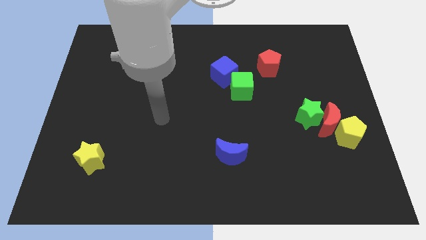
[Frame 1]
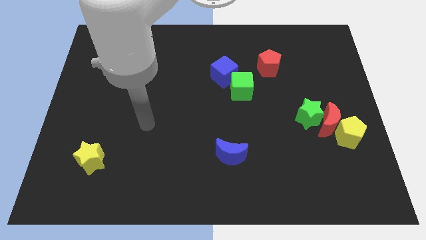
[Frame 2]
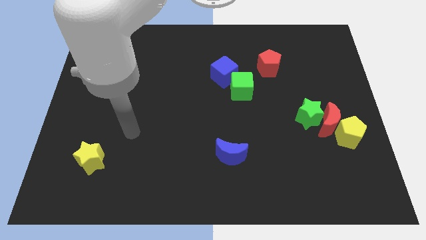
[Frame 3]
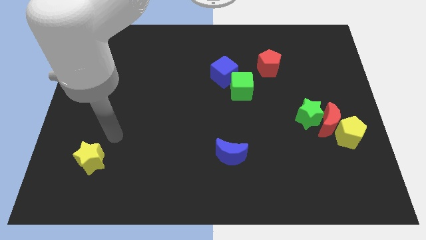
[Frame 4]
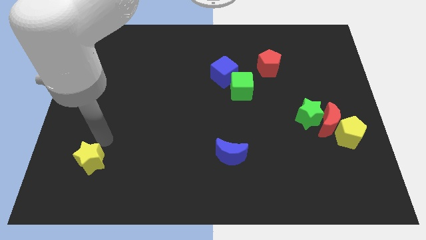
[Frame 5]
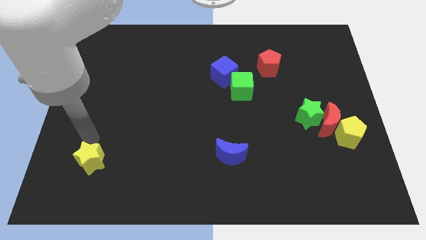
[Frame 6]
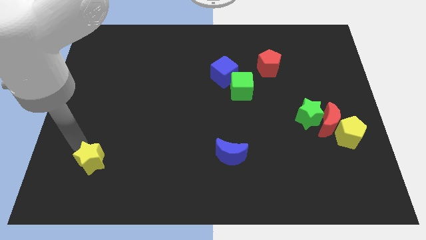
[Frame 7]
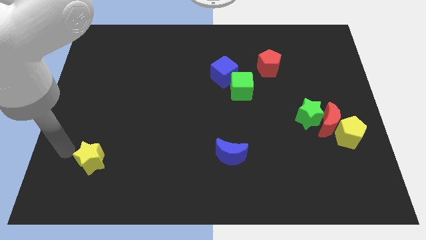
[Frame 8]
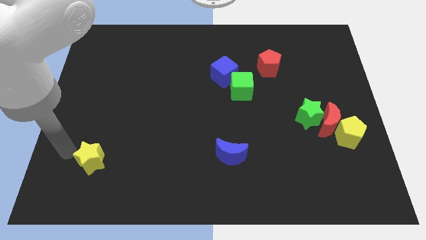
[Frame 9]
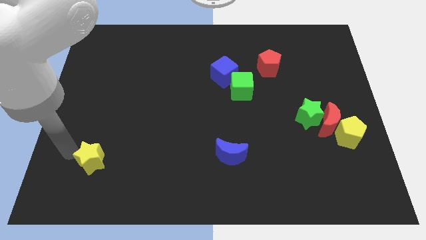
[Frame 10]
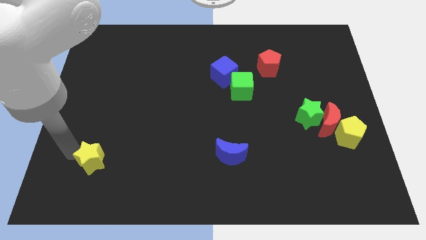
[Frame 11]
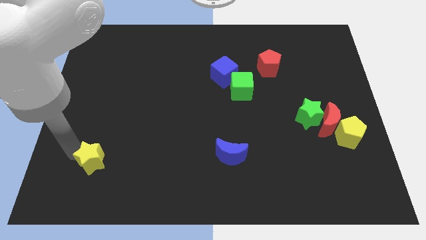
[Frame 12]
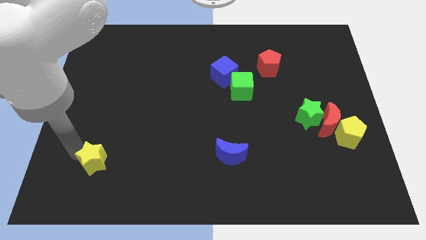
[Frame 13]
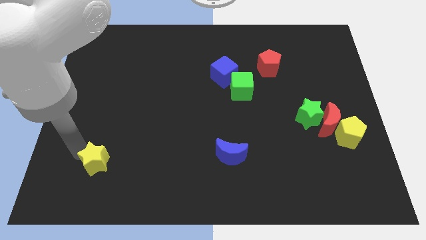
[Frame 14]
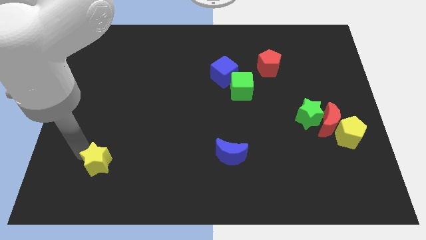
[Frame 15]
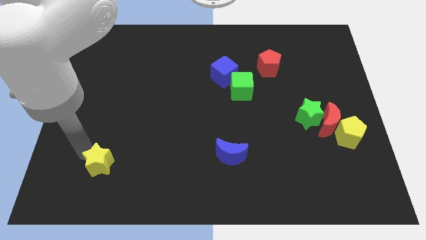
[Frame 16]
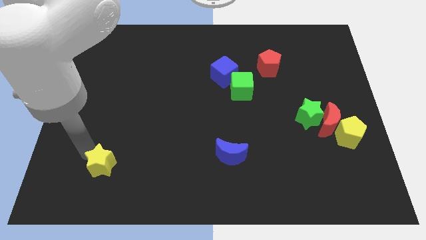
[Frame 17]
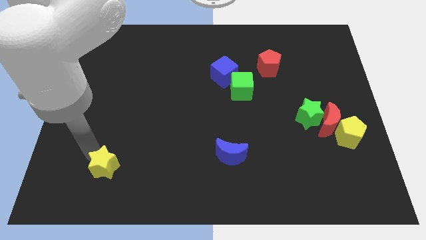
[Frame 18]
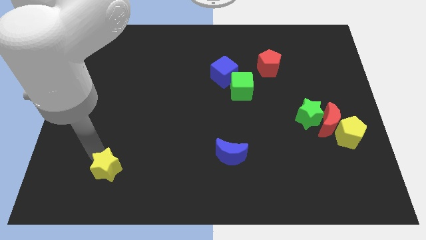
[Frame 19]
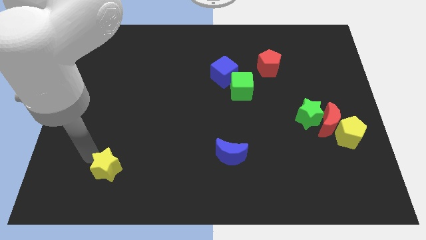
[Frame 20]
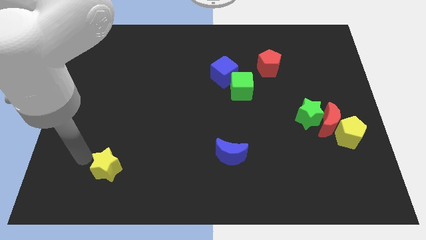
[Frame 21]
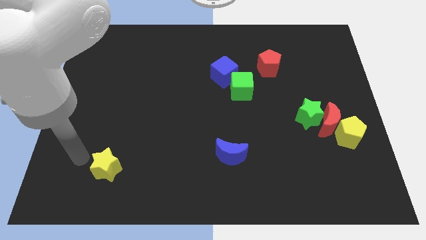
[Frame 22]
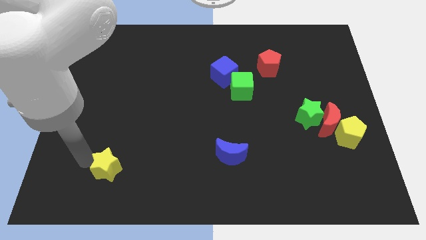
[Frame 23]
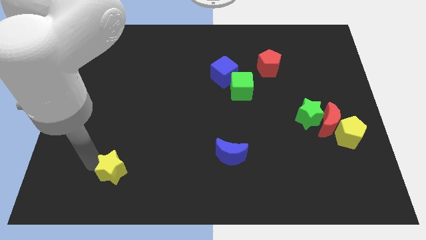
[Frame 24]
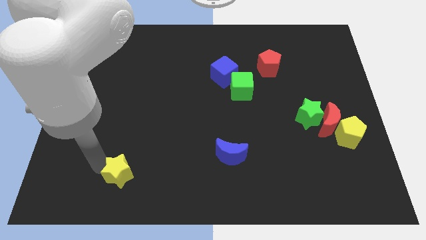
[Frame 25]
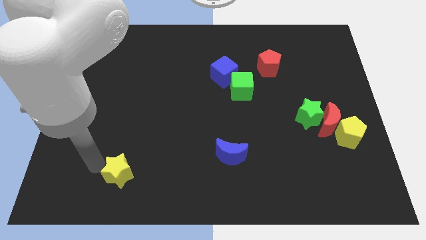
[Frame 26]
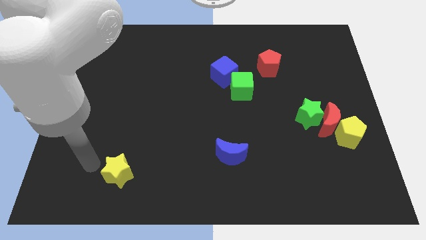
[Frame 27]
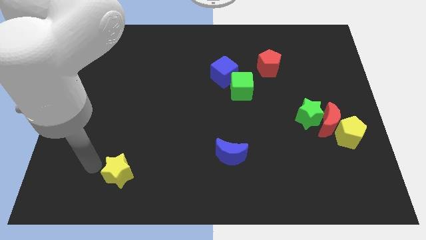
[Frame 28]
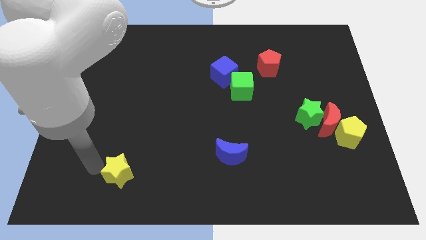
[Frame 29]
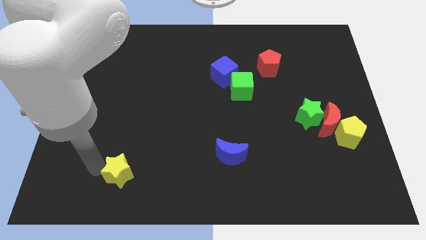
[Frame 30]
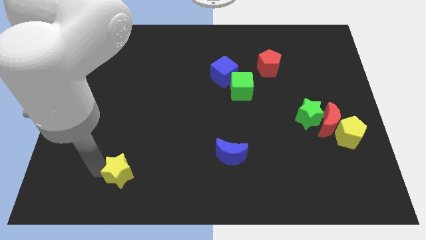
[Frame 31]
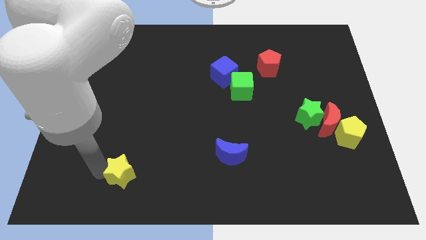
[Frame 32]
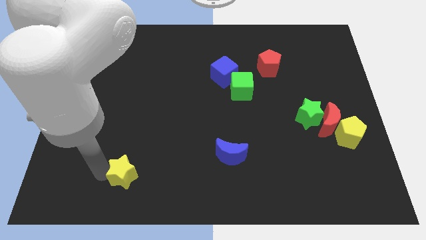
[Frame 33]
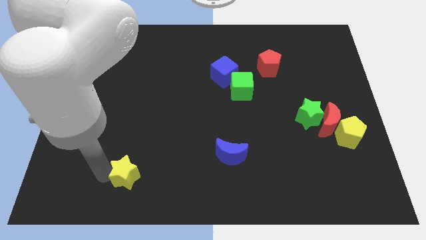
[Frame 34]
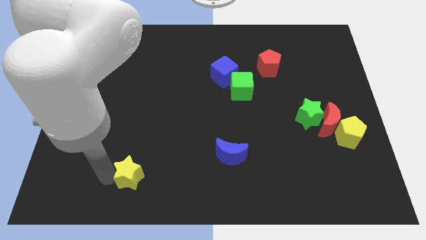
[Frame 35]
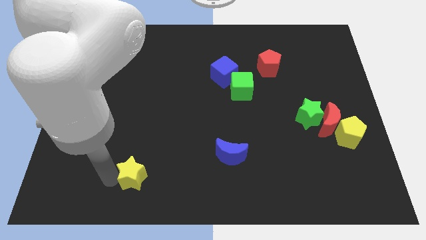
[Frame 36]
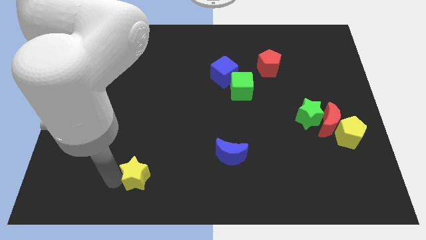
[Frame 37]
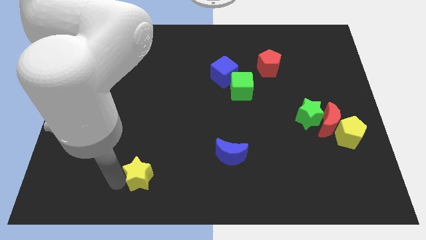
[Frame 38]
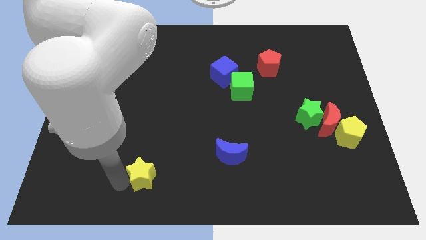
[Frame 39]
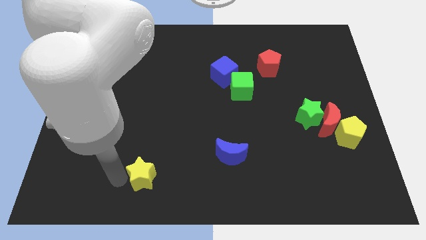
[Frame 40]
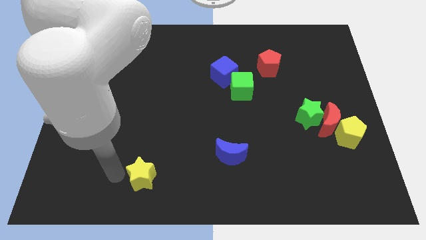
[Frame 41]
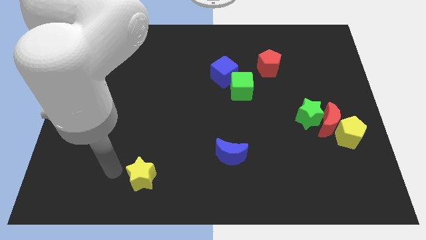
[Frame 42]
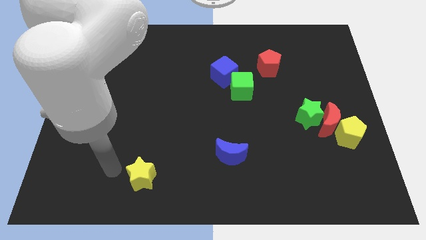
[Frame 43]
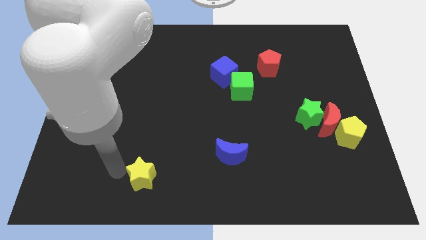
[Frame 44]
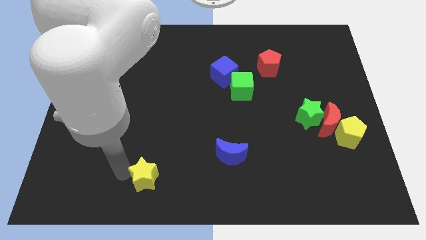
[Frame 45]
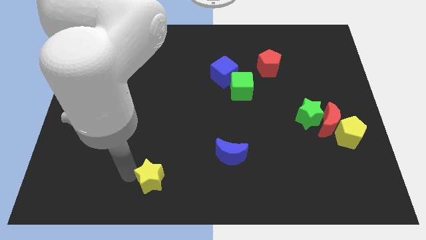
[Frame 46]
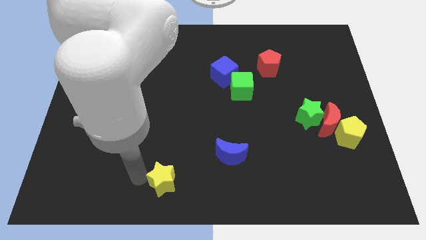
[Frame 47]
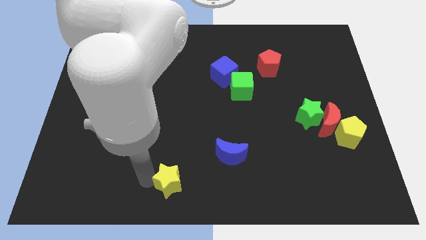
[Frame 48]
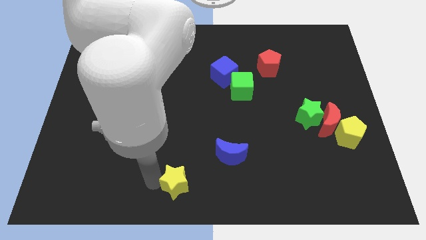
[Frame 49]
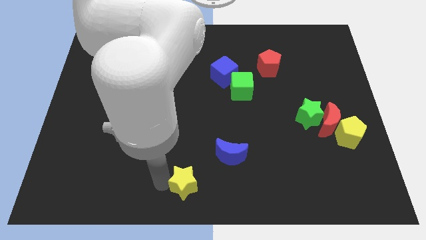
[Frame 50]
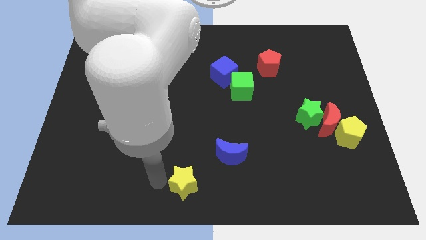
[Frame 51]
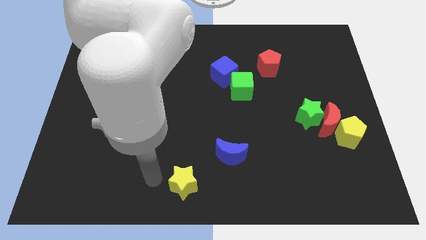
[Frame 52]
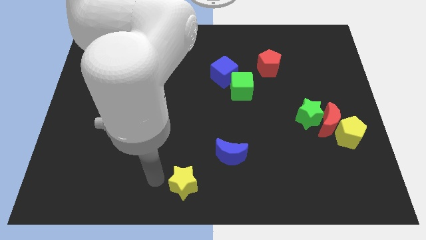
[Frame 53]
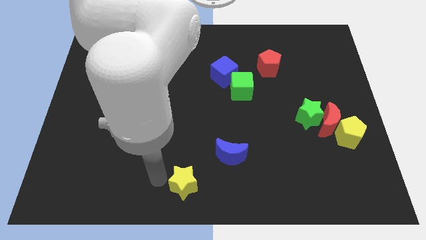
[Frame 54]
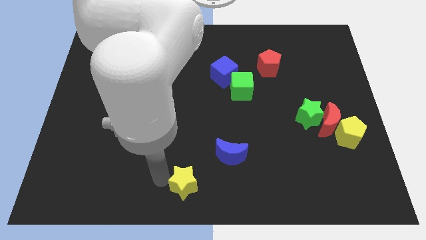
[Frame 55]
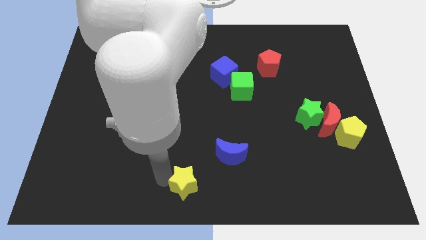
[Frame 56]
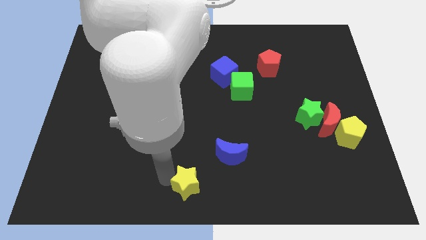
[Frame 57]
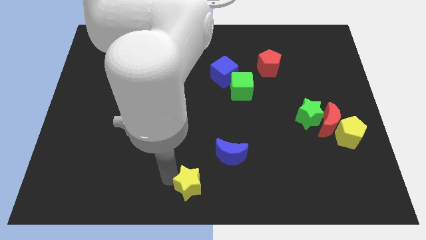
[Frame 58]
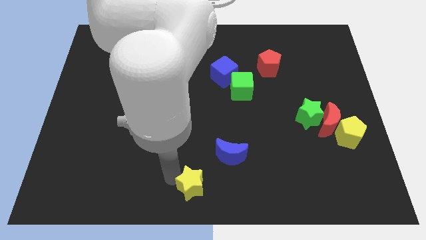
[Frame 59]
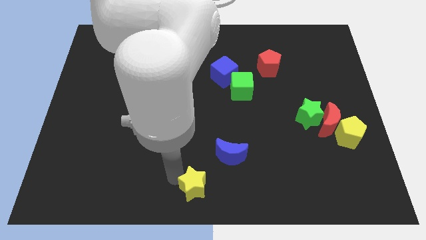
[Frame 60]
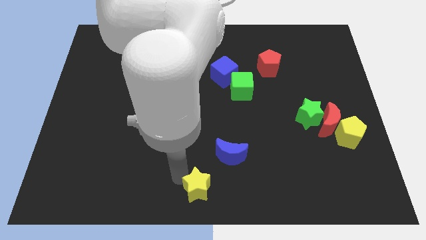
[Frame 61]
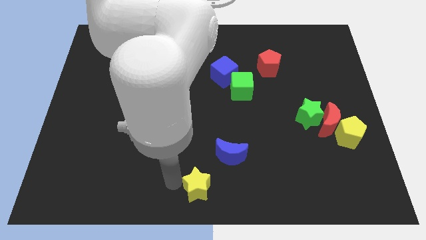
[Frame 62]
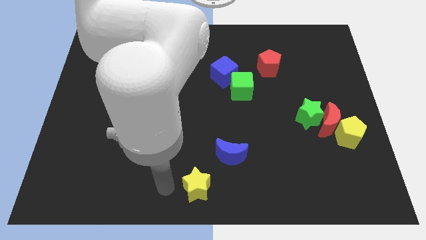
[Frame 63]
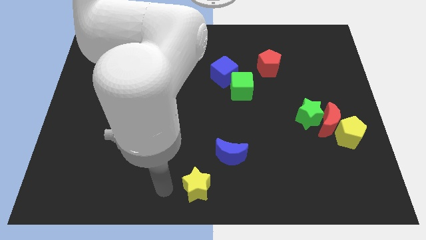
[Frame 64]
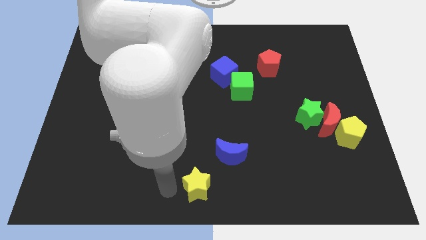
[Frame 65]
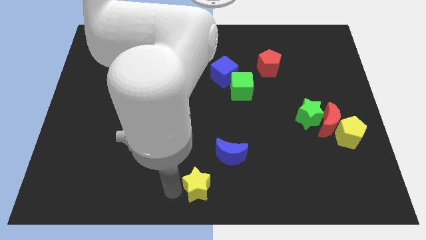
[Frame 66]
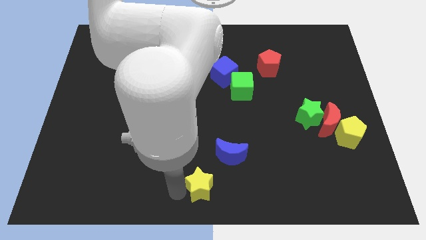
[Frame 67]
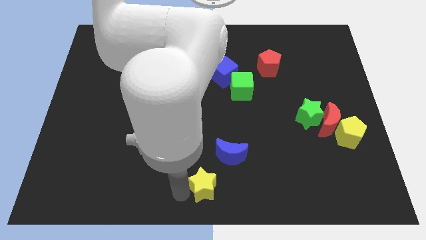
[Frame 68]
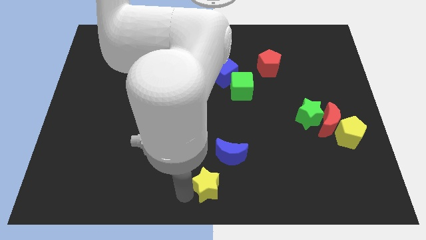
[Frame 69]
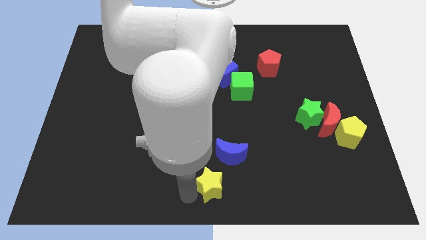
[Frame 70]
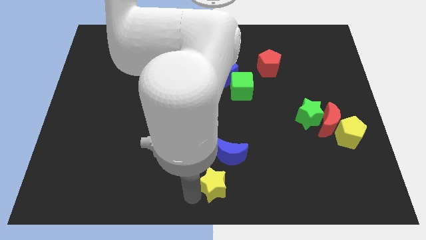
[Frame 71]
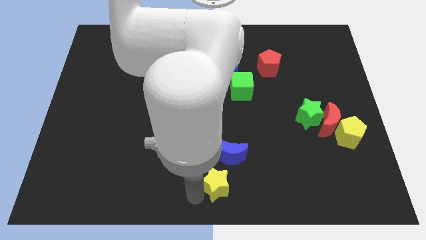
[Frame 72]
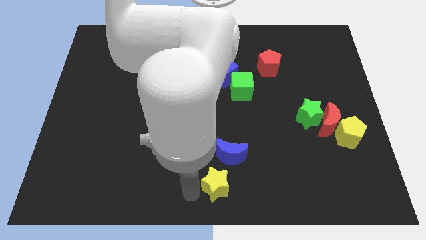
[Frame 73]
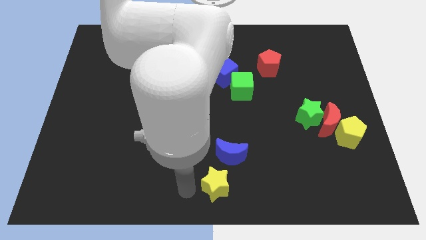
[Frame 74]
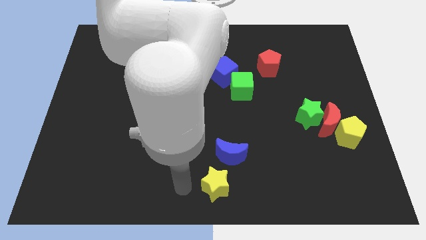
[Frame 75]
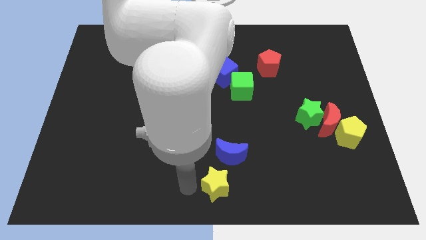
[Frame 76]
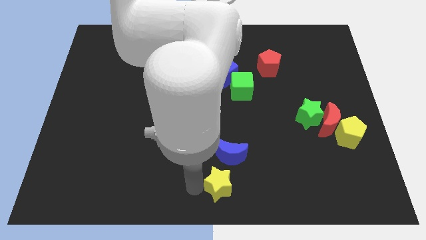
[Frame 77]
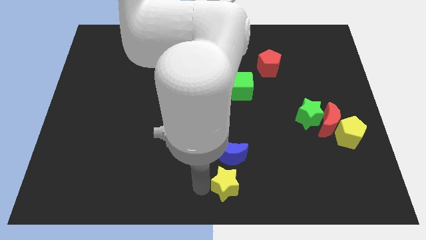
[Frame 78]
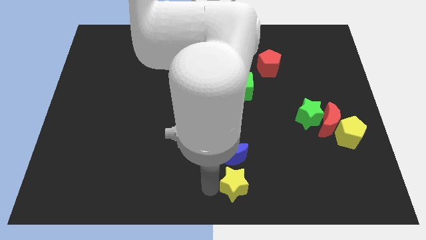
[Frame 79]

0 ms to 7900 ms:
move the yellow star to the bottom right of the blue moon
